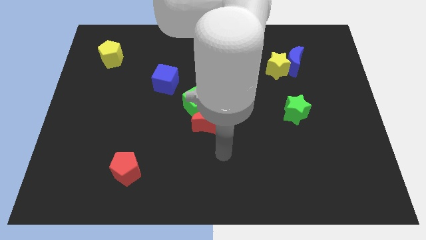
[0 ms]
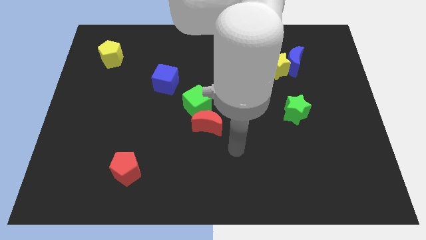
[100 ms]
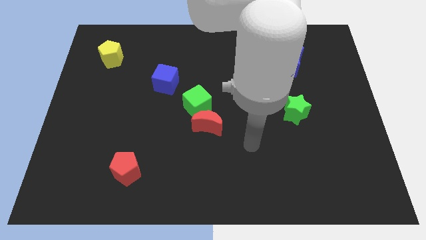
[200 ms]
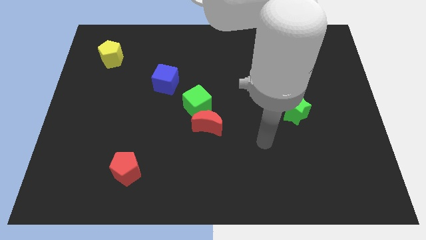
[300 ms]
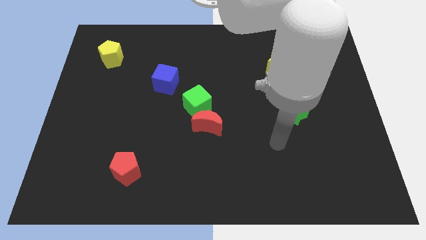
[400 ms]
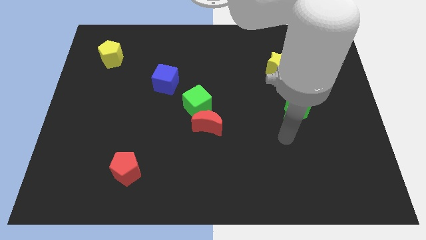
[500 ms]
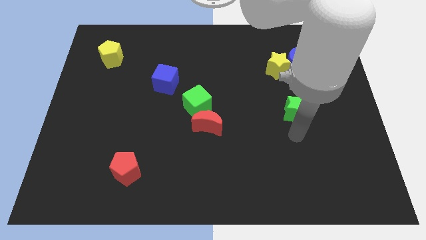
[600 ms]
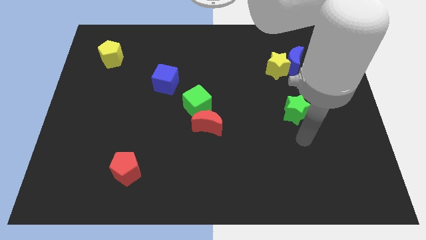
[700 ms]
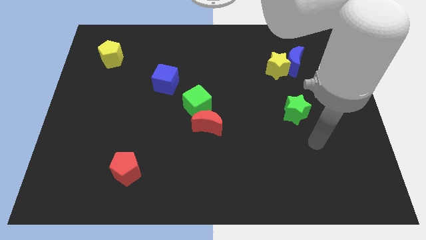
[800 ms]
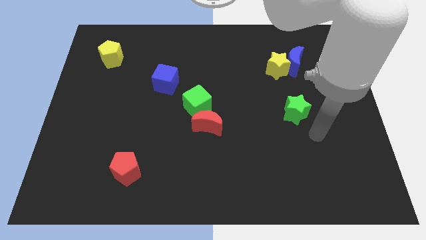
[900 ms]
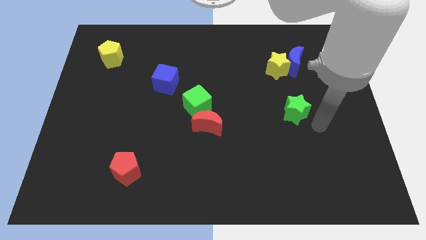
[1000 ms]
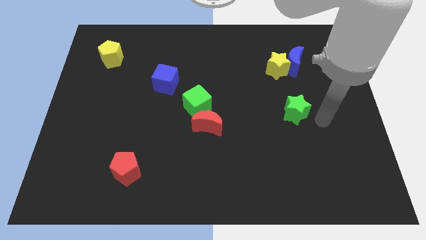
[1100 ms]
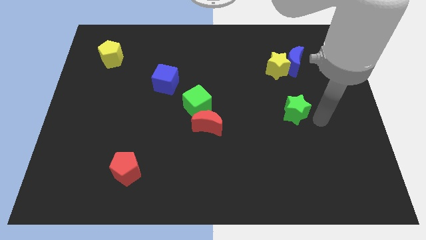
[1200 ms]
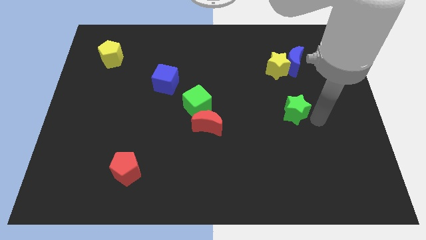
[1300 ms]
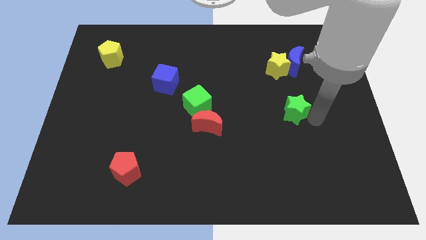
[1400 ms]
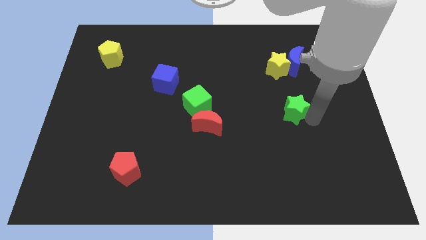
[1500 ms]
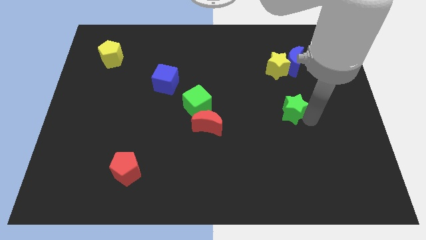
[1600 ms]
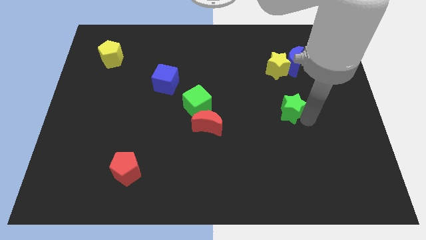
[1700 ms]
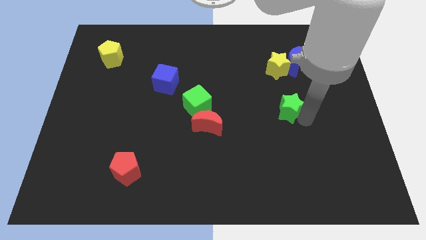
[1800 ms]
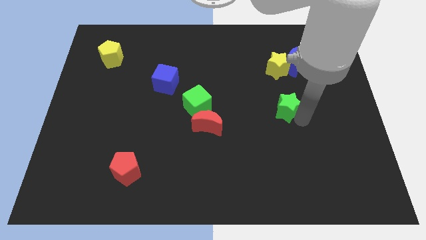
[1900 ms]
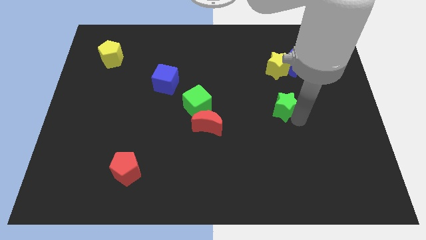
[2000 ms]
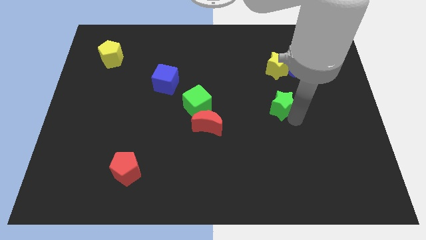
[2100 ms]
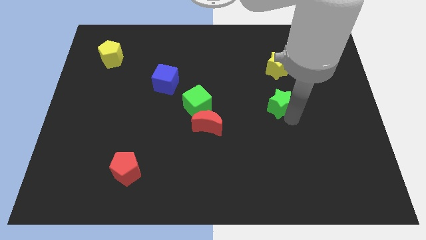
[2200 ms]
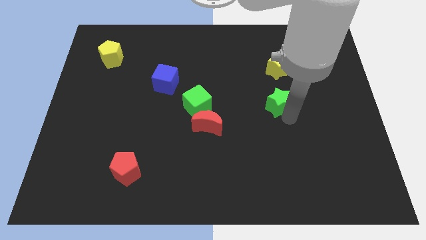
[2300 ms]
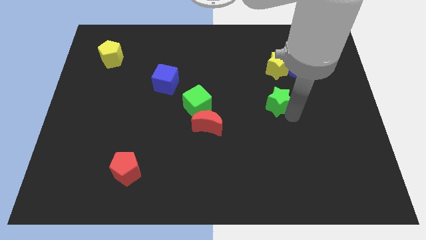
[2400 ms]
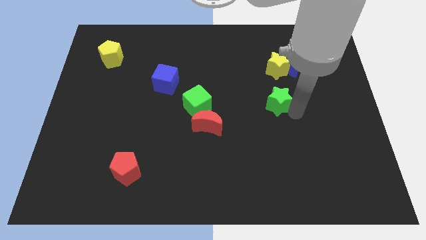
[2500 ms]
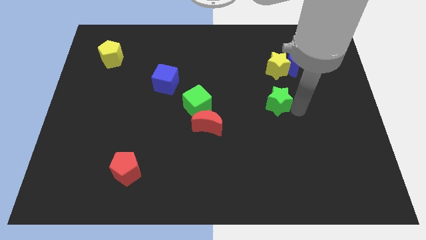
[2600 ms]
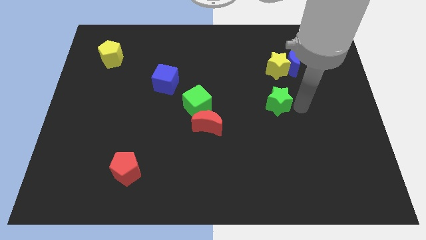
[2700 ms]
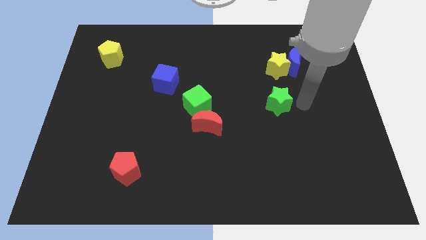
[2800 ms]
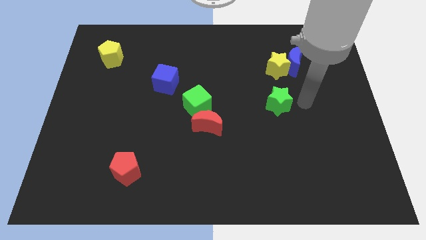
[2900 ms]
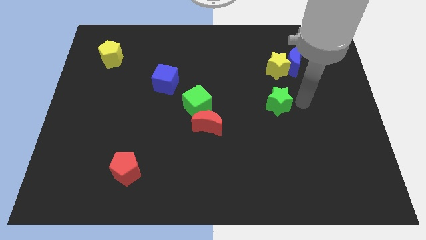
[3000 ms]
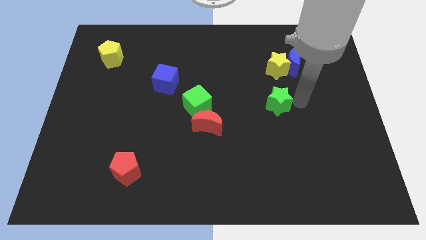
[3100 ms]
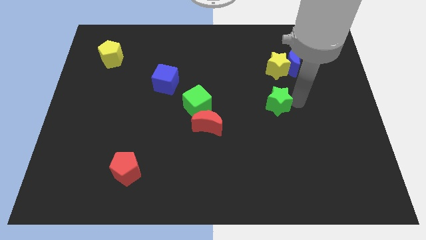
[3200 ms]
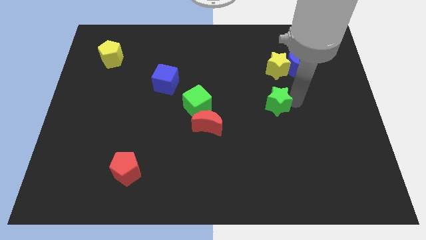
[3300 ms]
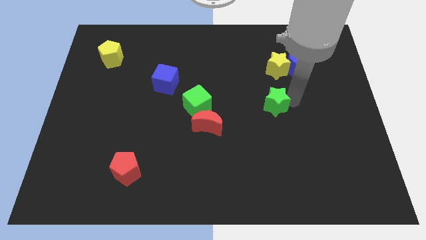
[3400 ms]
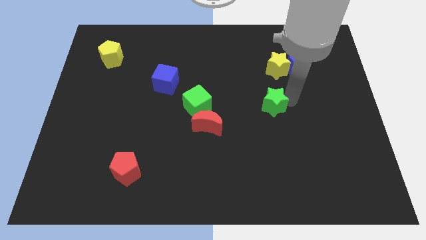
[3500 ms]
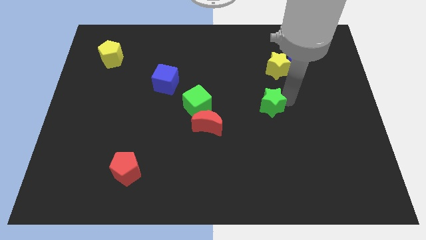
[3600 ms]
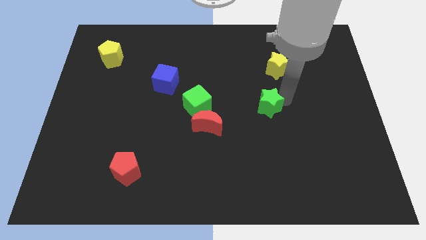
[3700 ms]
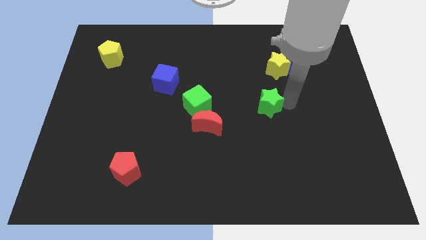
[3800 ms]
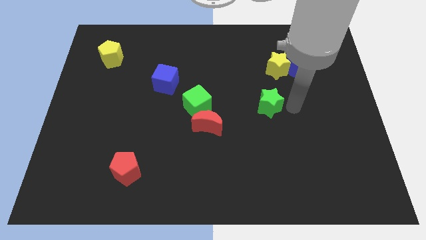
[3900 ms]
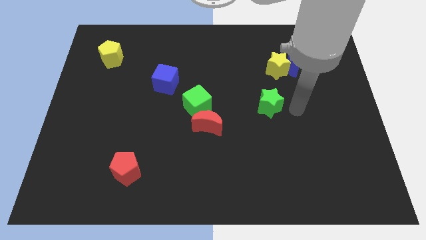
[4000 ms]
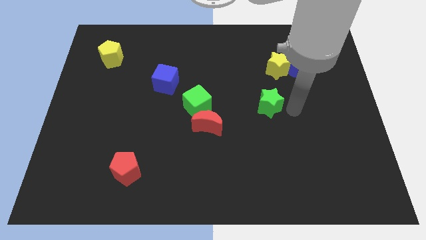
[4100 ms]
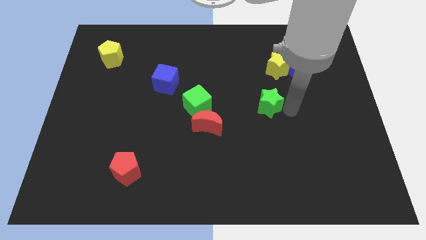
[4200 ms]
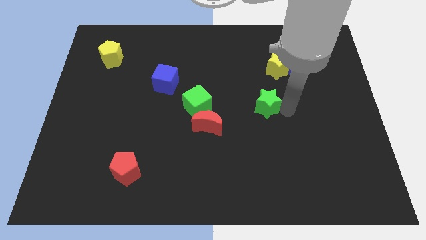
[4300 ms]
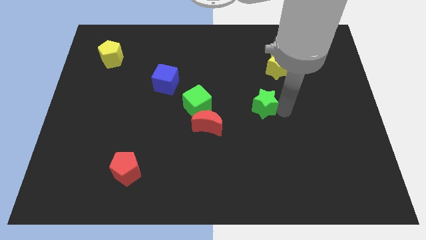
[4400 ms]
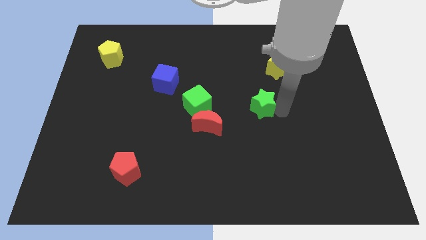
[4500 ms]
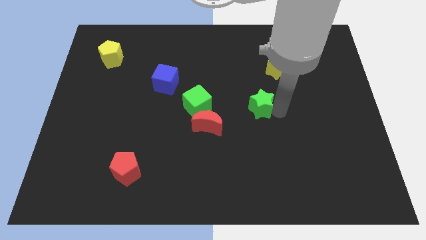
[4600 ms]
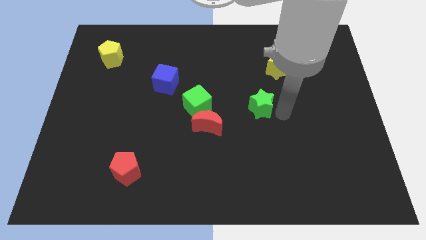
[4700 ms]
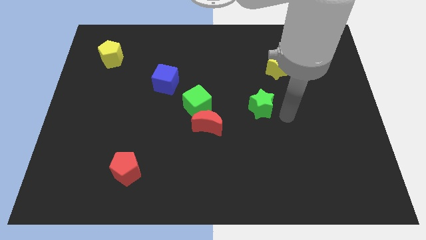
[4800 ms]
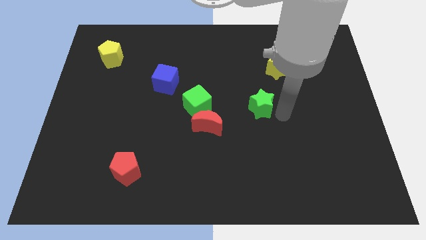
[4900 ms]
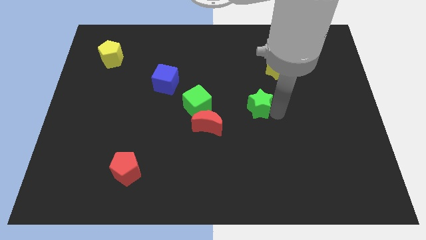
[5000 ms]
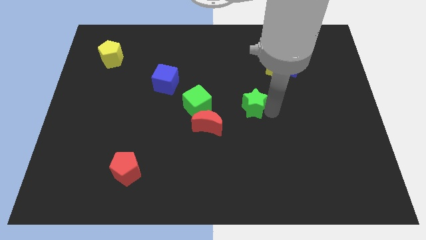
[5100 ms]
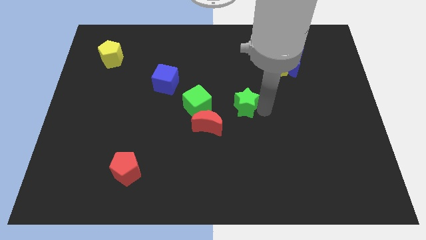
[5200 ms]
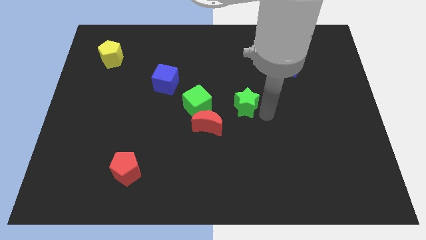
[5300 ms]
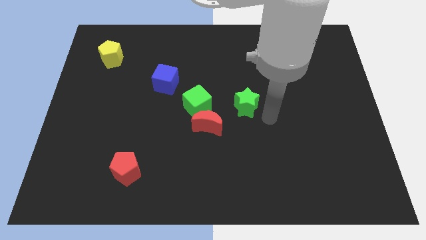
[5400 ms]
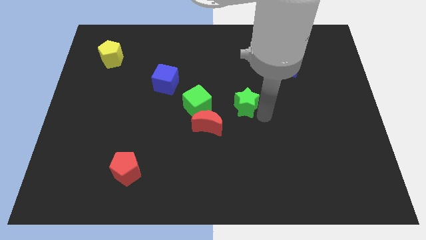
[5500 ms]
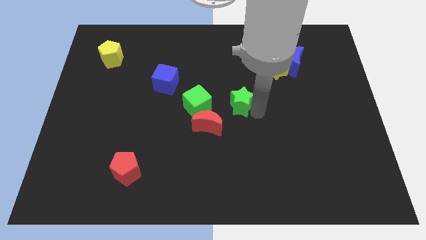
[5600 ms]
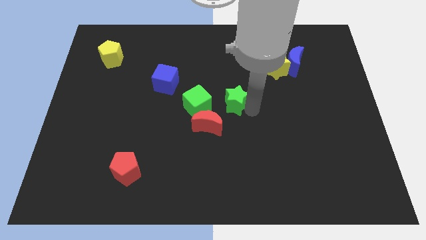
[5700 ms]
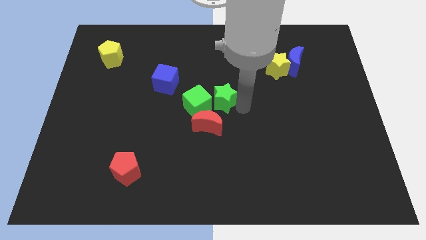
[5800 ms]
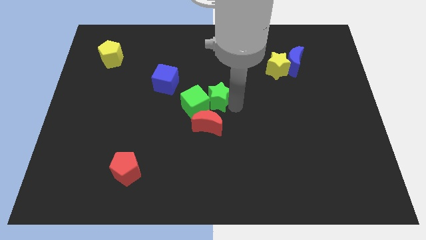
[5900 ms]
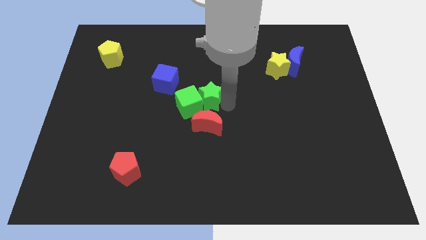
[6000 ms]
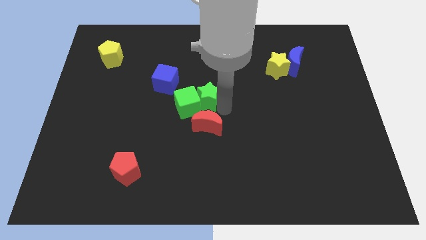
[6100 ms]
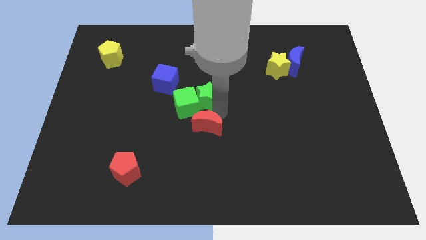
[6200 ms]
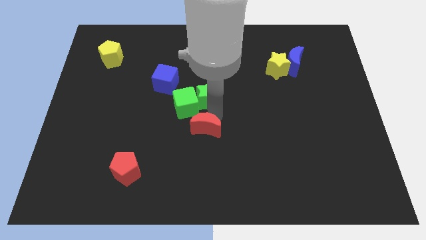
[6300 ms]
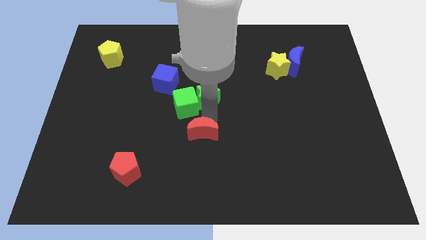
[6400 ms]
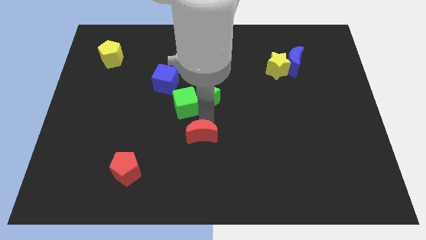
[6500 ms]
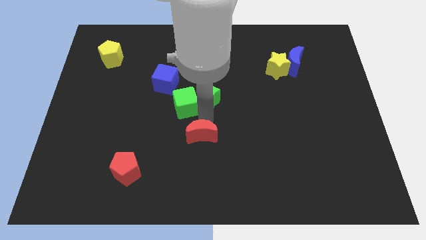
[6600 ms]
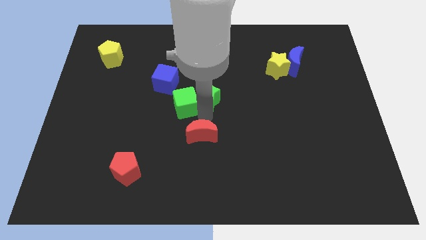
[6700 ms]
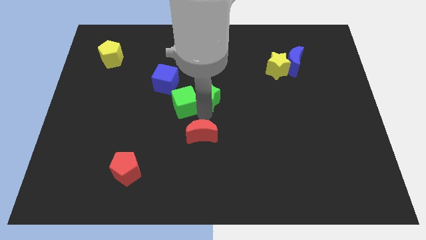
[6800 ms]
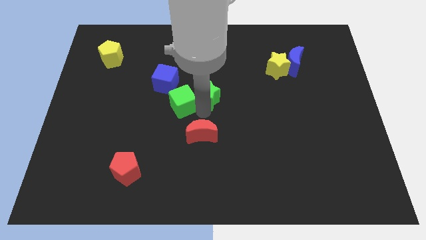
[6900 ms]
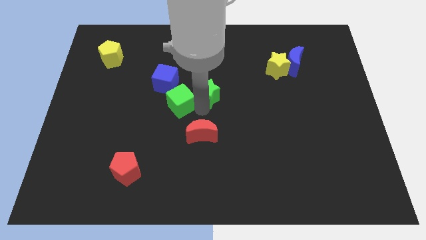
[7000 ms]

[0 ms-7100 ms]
put the green star right of the blue cube

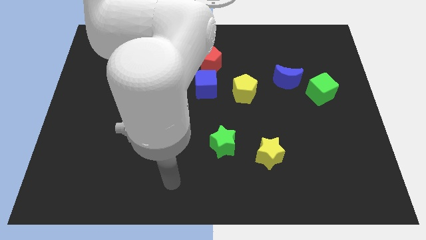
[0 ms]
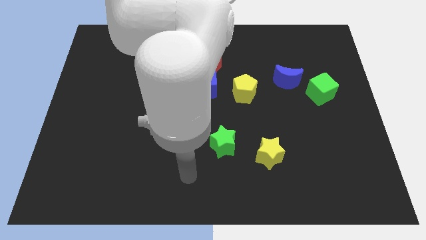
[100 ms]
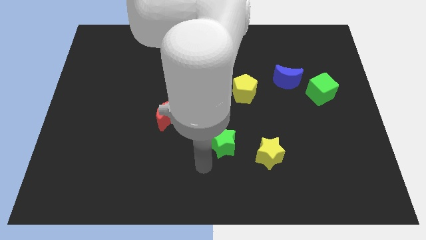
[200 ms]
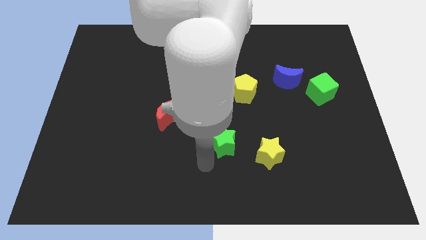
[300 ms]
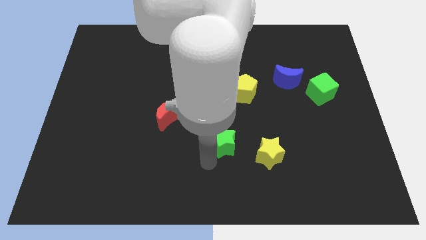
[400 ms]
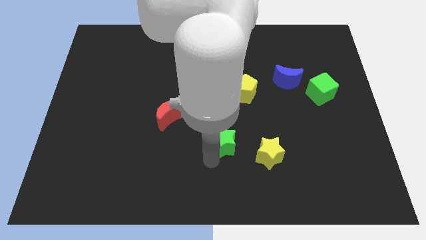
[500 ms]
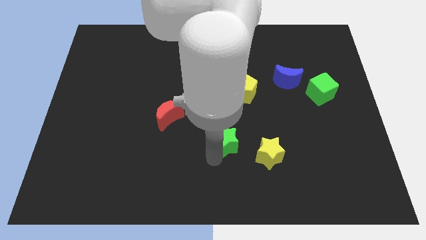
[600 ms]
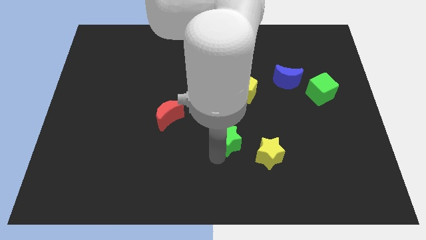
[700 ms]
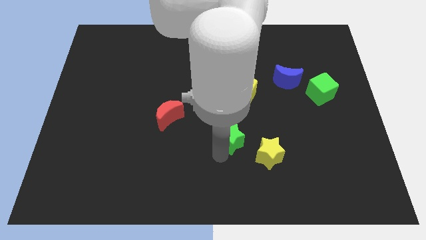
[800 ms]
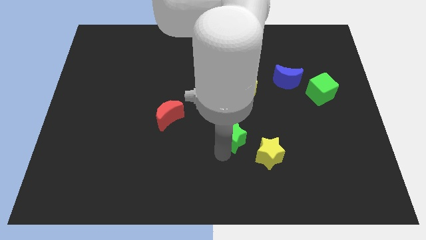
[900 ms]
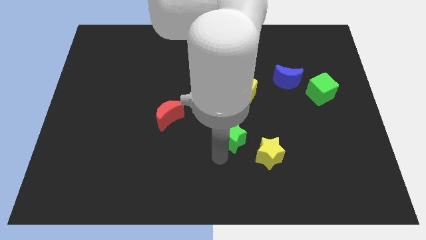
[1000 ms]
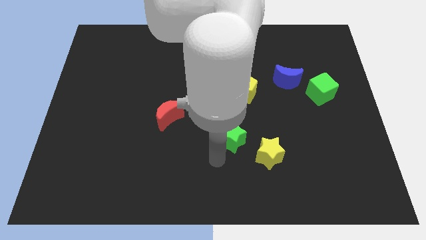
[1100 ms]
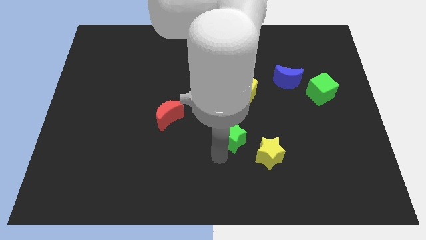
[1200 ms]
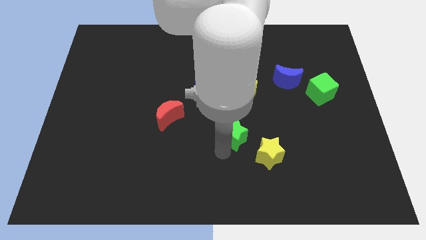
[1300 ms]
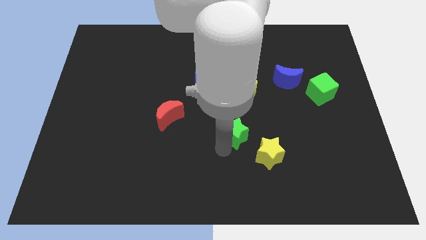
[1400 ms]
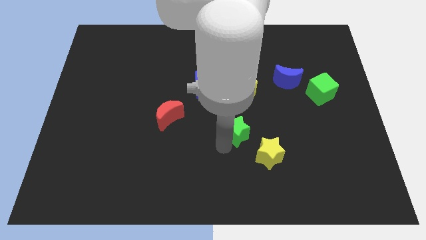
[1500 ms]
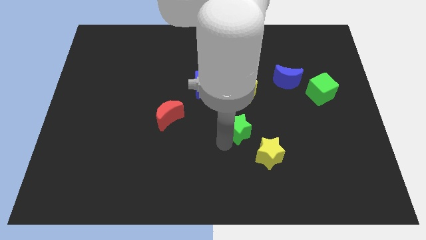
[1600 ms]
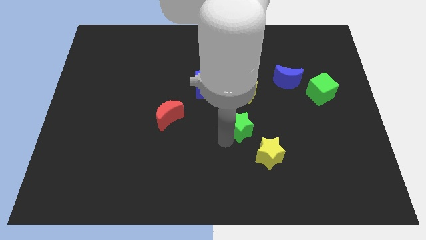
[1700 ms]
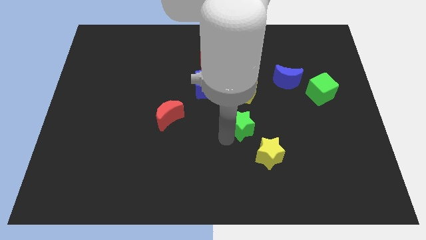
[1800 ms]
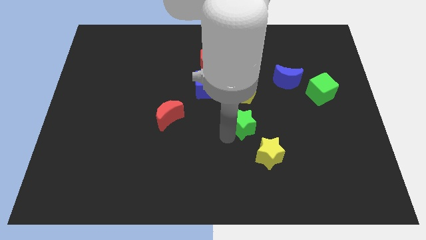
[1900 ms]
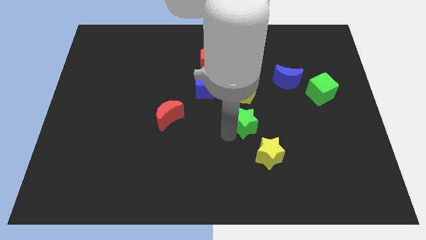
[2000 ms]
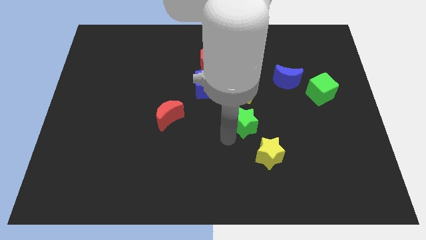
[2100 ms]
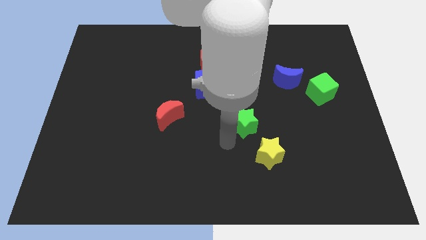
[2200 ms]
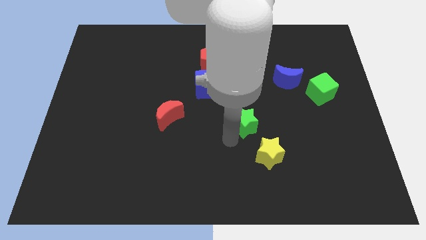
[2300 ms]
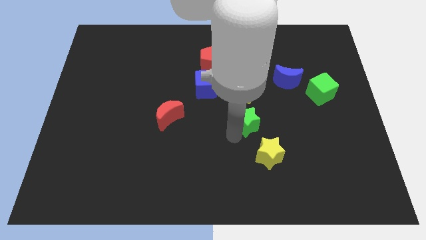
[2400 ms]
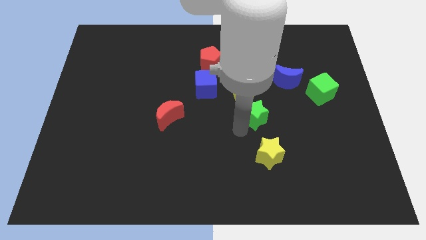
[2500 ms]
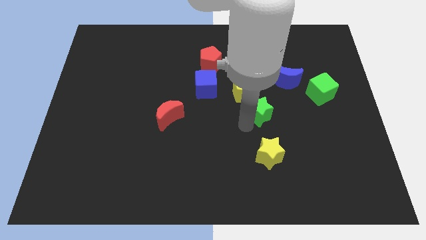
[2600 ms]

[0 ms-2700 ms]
put the green star to the bottom left of the blue moon
